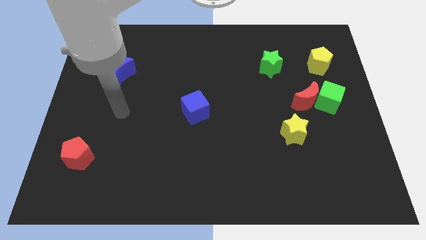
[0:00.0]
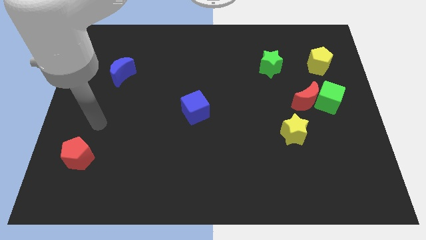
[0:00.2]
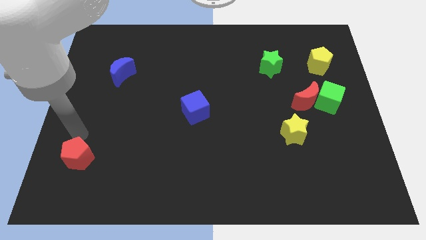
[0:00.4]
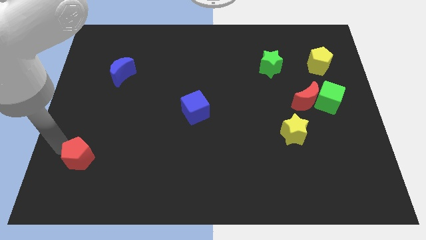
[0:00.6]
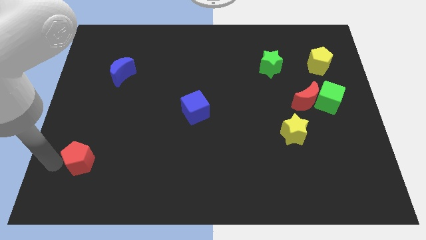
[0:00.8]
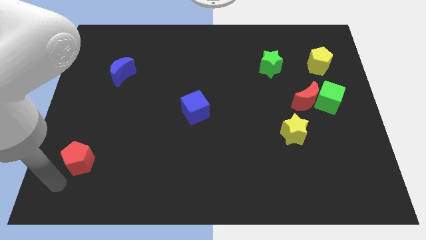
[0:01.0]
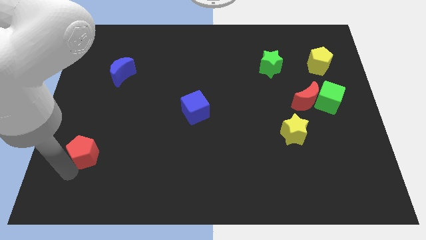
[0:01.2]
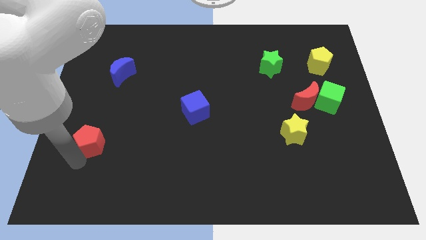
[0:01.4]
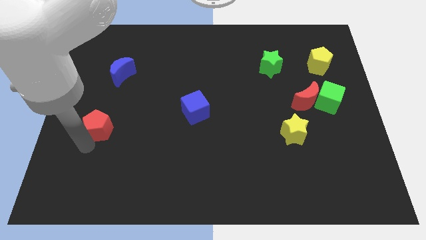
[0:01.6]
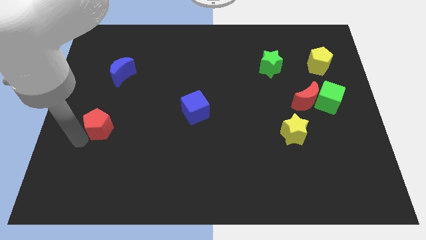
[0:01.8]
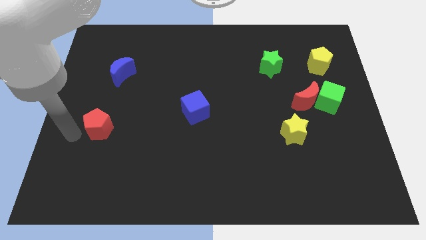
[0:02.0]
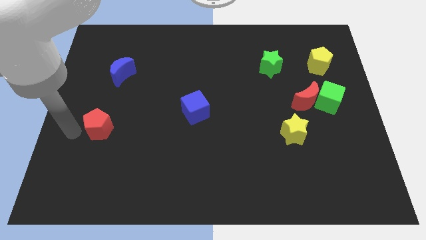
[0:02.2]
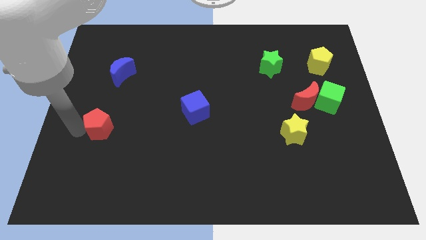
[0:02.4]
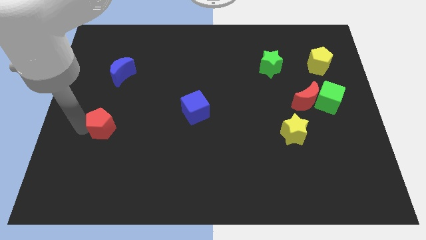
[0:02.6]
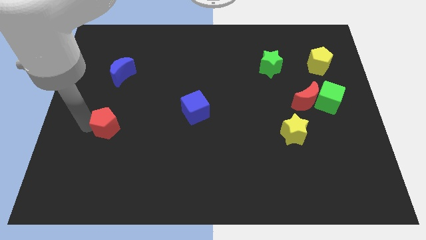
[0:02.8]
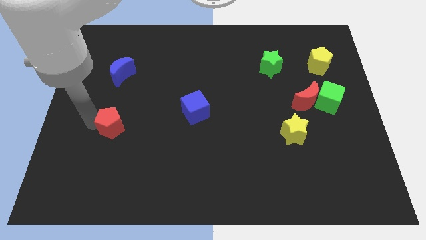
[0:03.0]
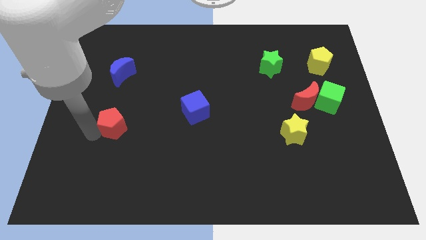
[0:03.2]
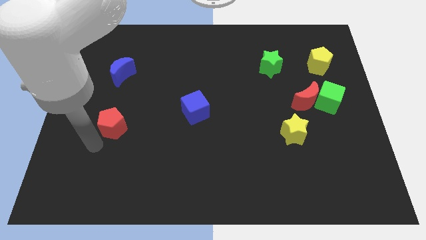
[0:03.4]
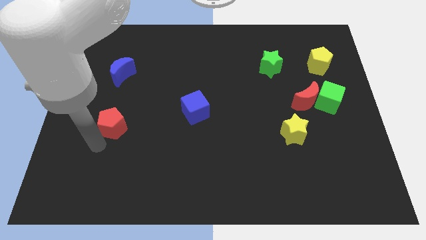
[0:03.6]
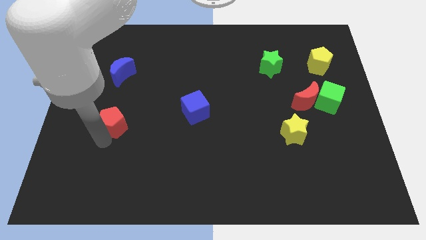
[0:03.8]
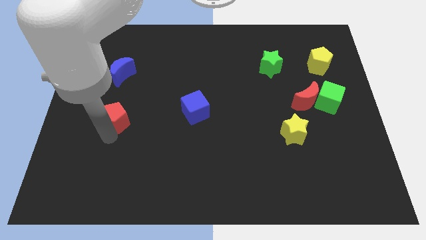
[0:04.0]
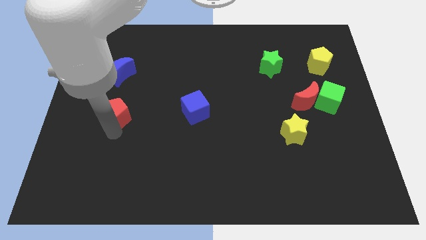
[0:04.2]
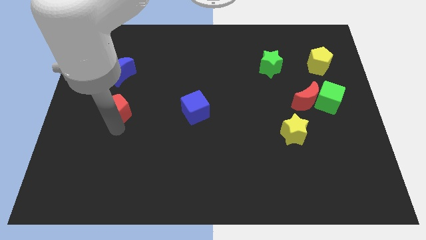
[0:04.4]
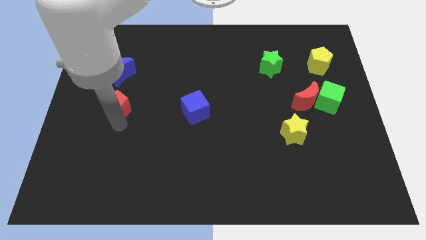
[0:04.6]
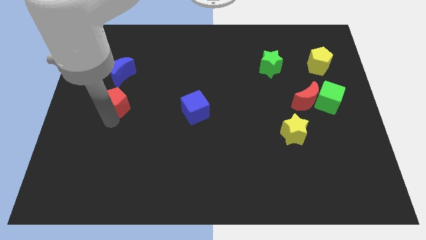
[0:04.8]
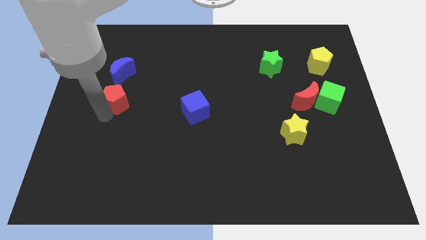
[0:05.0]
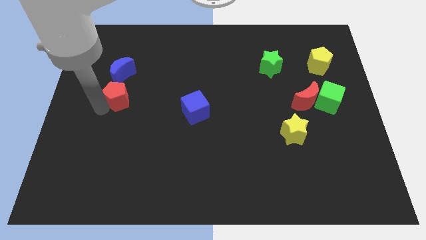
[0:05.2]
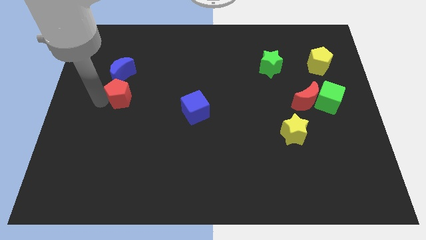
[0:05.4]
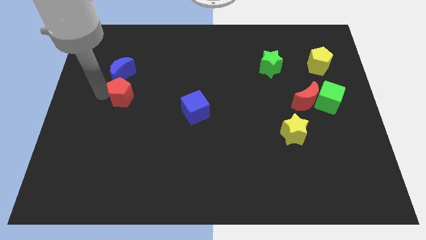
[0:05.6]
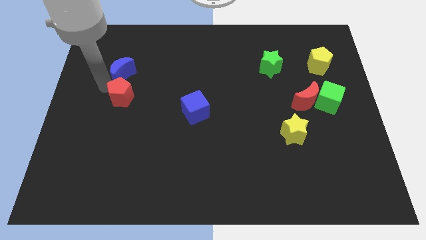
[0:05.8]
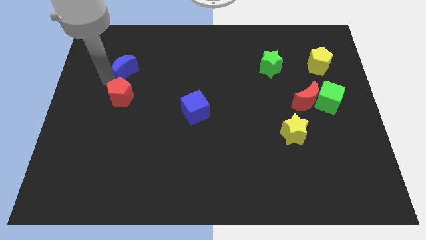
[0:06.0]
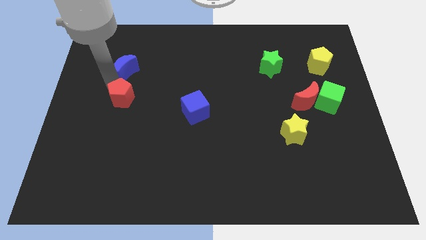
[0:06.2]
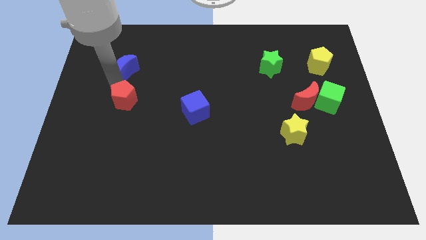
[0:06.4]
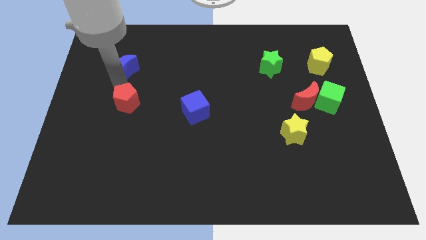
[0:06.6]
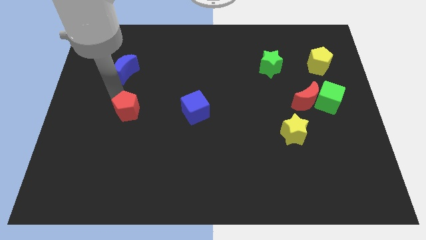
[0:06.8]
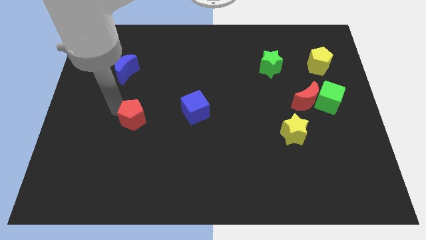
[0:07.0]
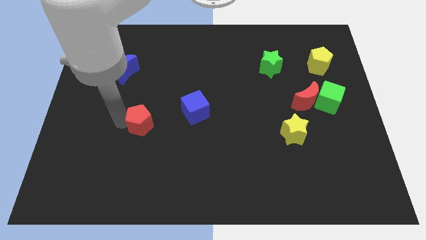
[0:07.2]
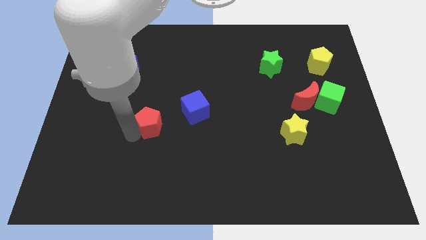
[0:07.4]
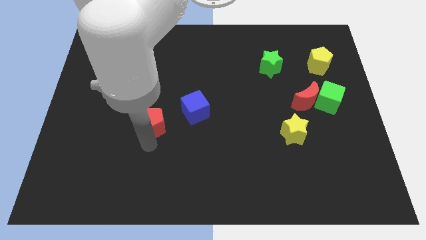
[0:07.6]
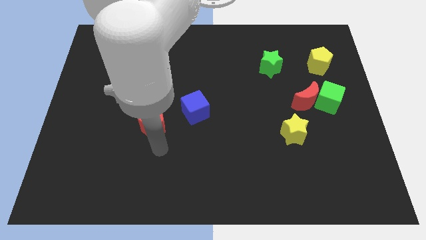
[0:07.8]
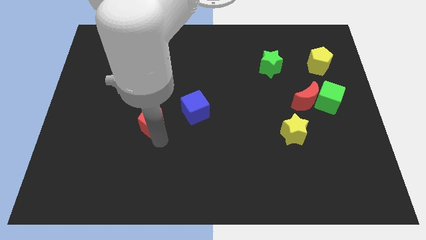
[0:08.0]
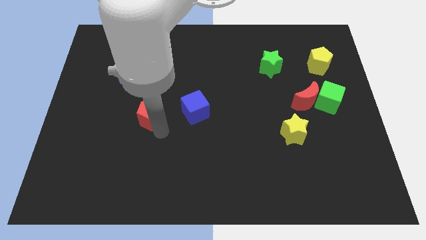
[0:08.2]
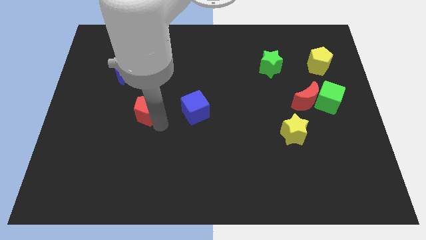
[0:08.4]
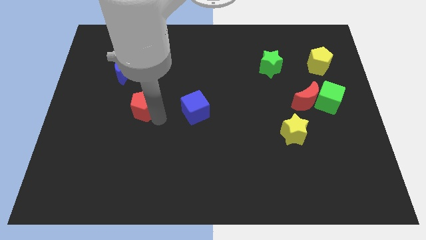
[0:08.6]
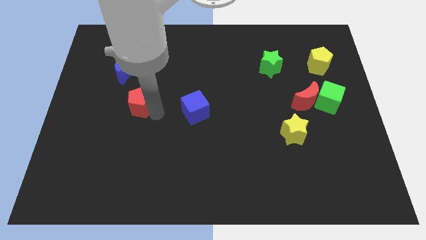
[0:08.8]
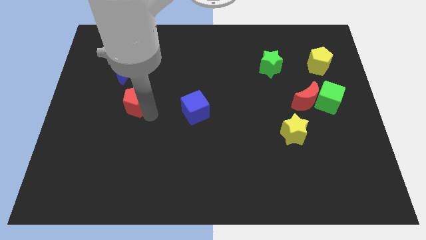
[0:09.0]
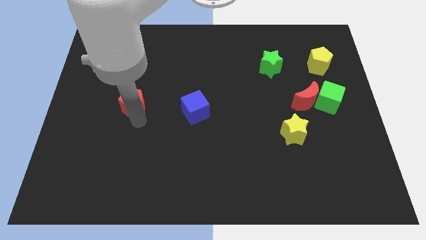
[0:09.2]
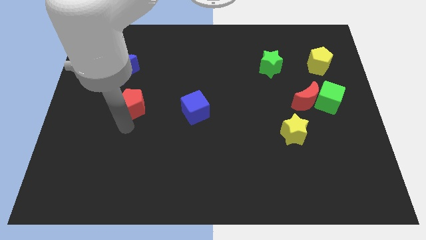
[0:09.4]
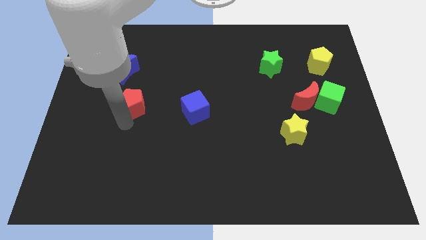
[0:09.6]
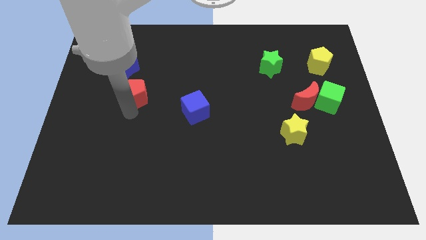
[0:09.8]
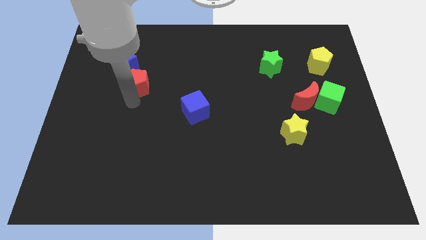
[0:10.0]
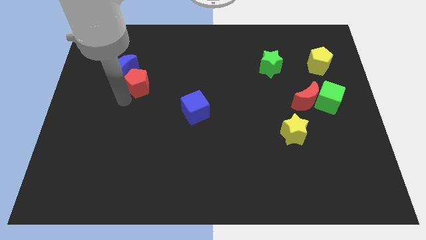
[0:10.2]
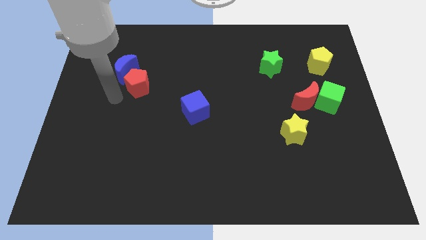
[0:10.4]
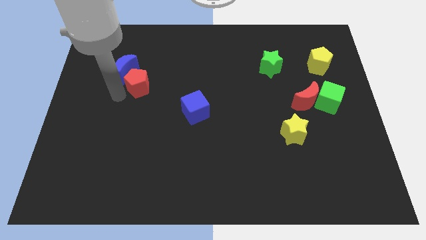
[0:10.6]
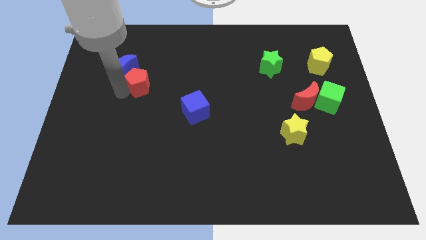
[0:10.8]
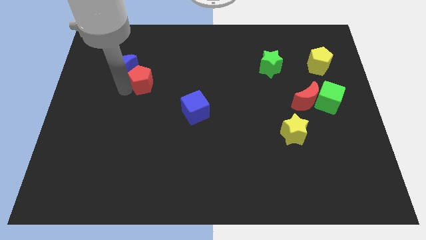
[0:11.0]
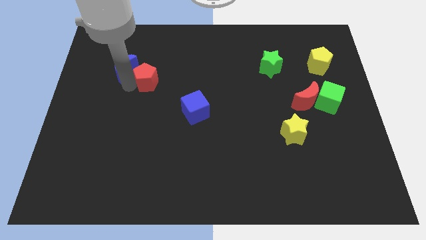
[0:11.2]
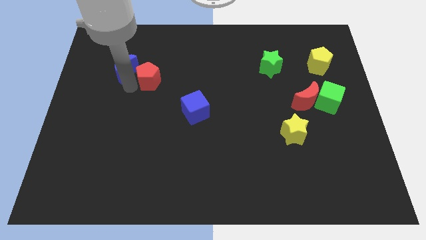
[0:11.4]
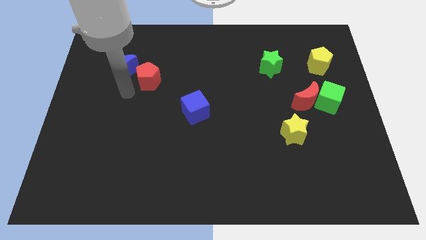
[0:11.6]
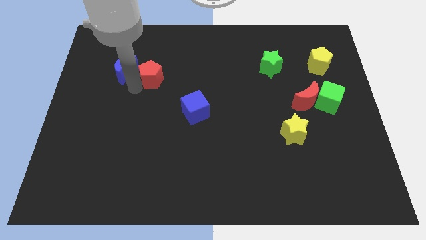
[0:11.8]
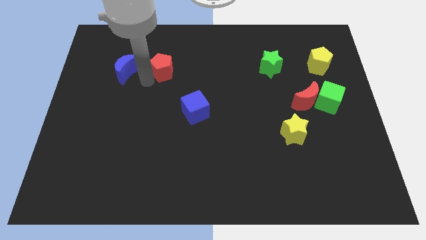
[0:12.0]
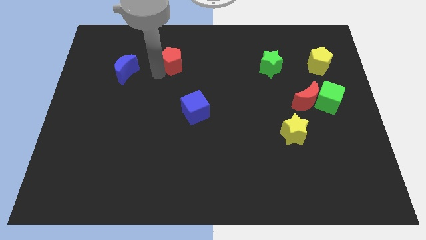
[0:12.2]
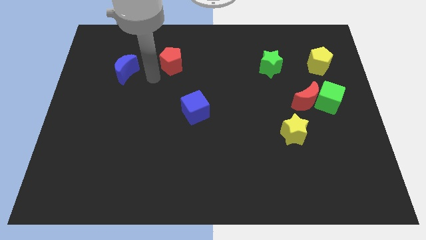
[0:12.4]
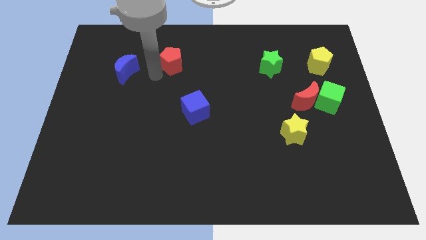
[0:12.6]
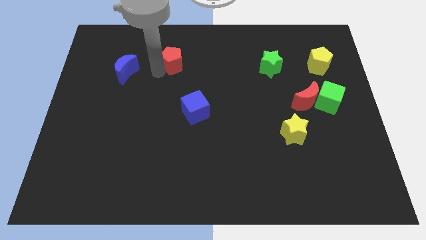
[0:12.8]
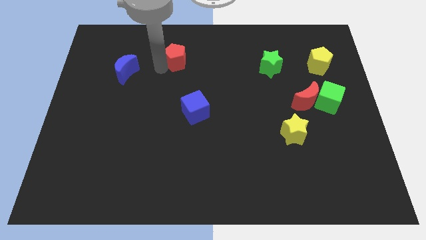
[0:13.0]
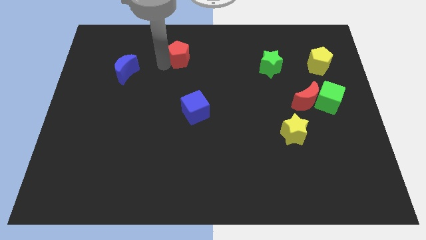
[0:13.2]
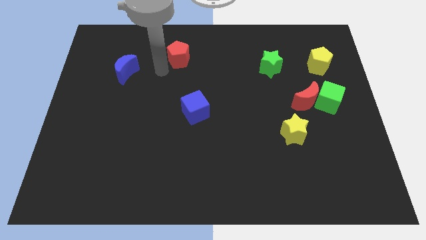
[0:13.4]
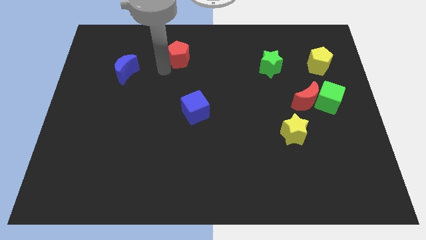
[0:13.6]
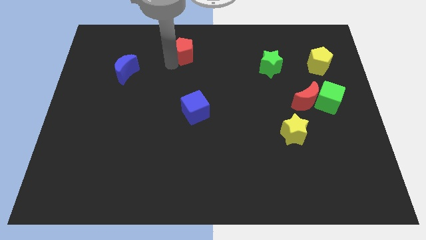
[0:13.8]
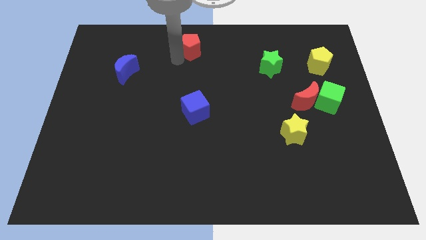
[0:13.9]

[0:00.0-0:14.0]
put the red pentagon to the top
